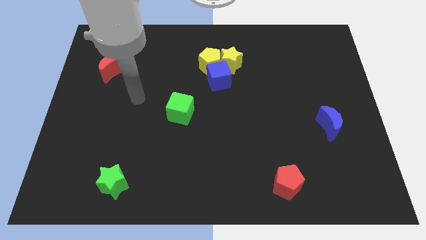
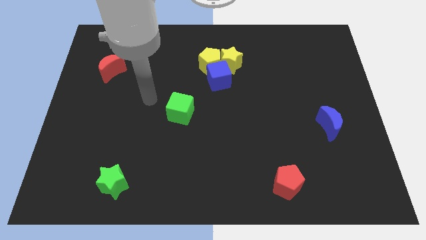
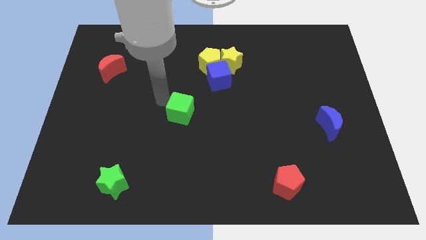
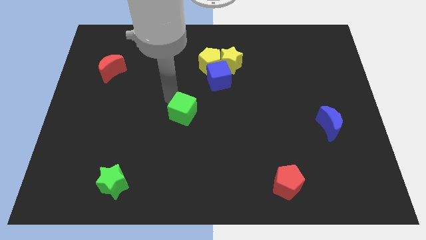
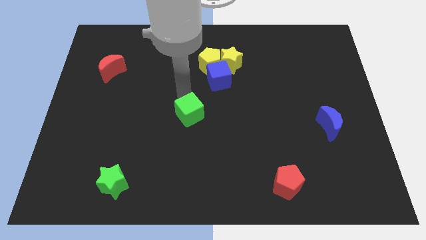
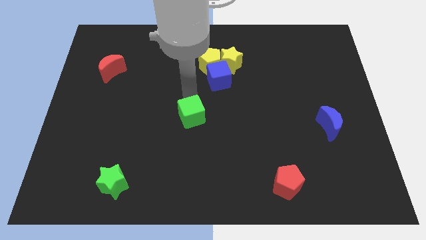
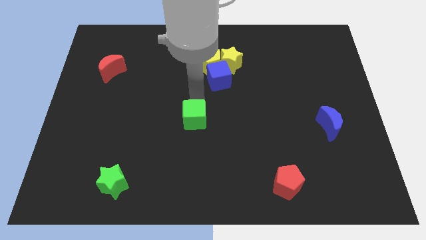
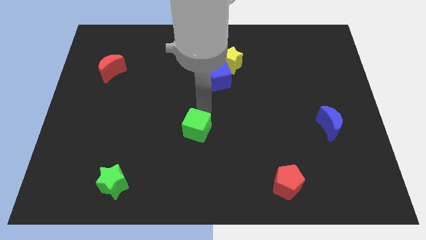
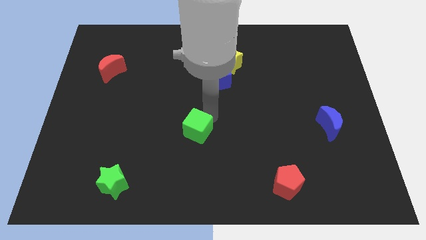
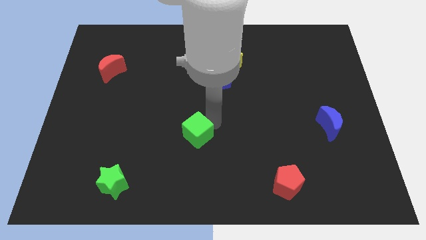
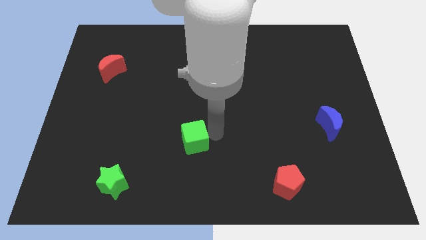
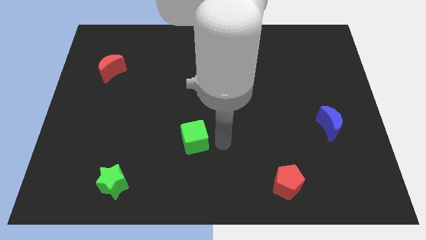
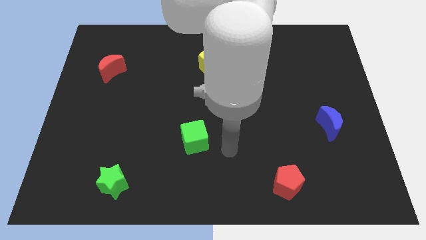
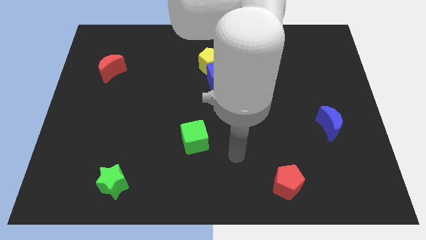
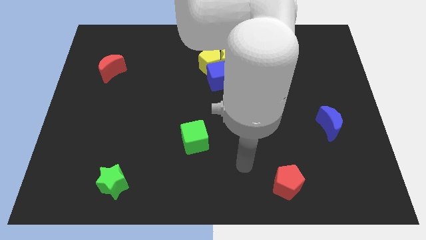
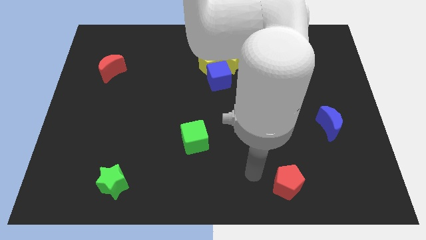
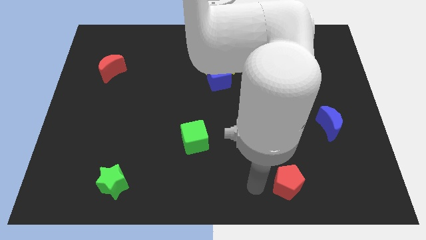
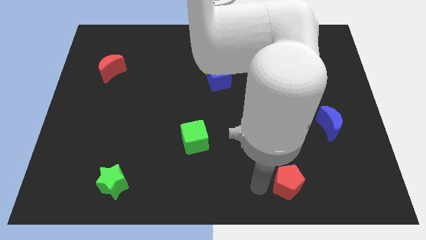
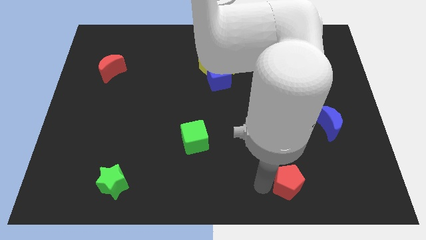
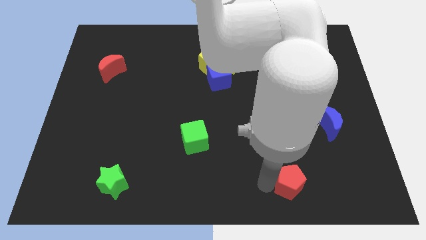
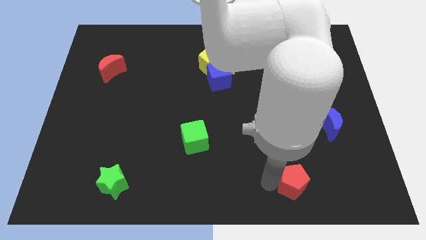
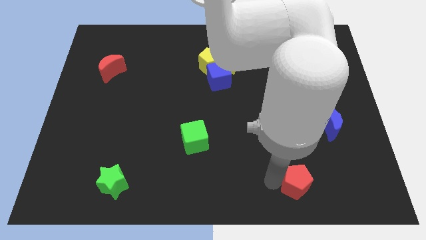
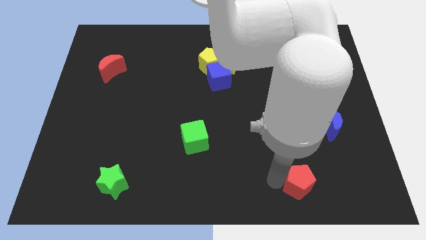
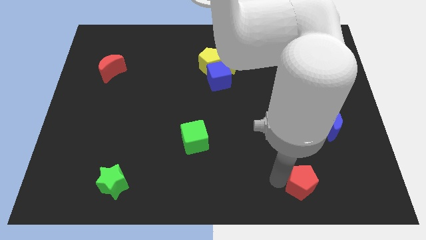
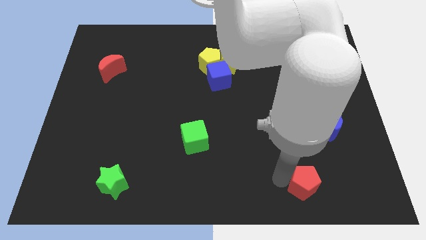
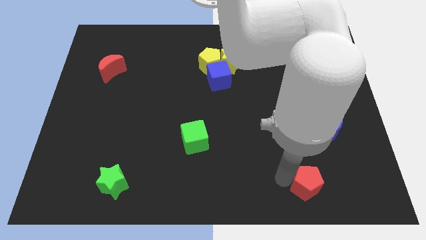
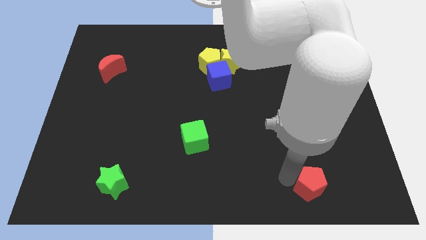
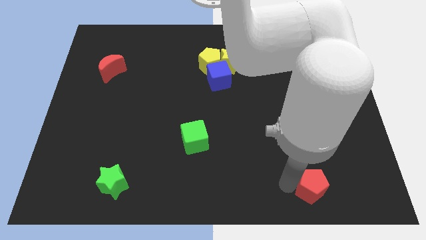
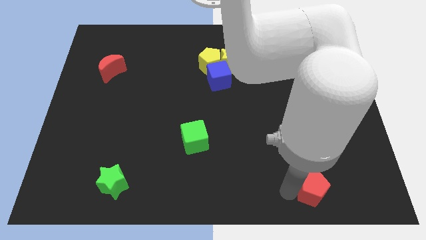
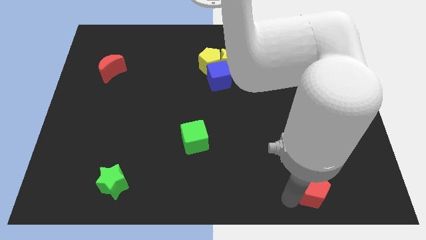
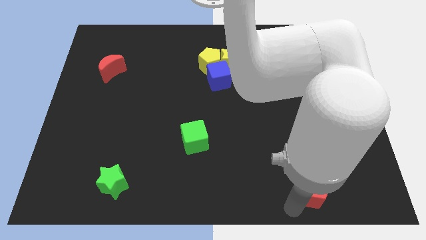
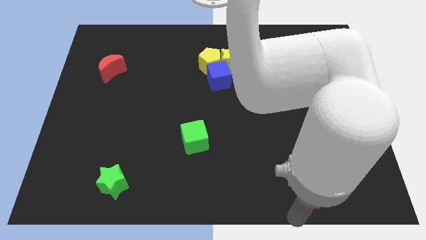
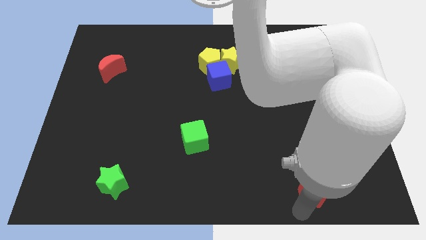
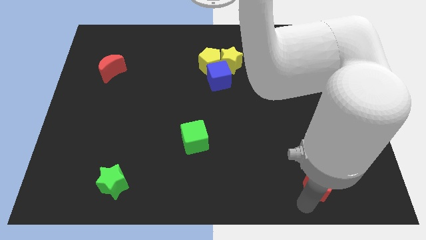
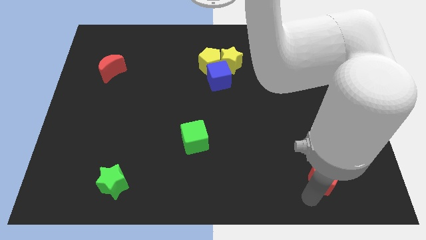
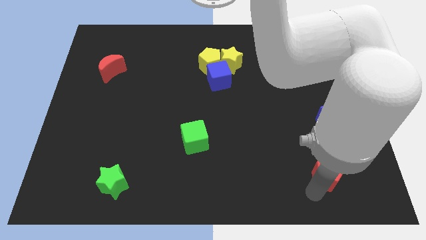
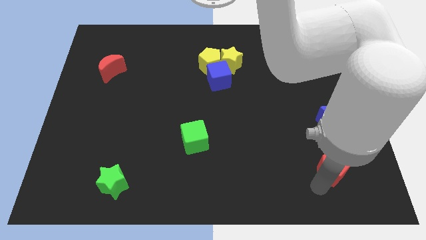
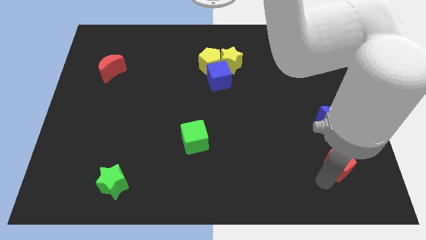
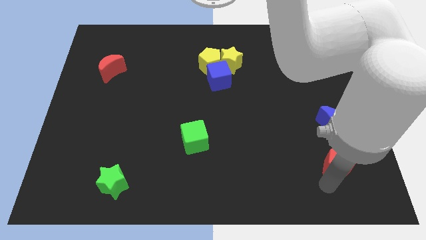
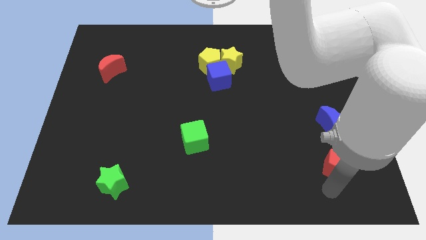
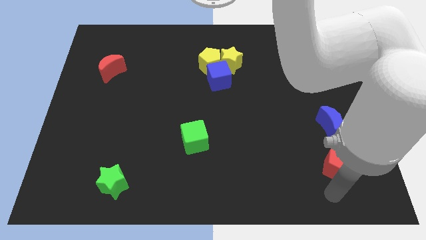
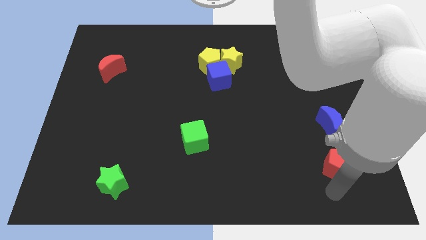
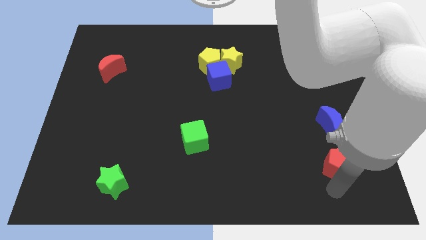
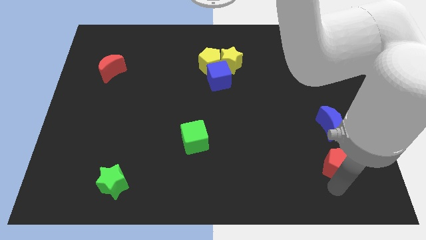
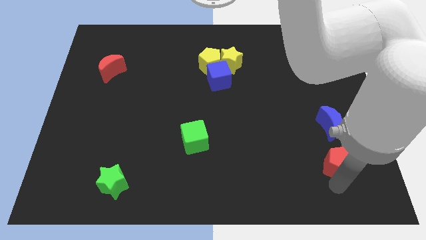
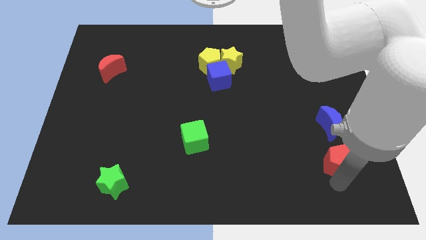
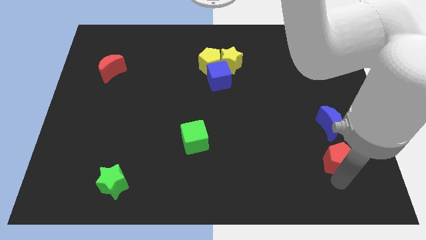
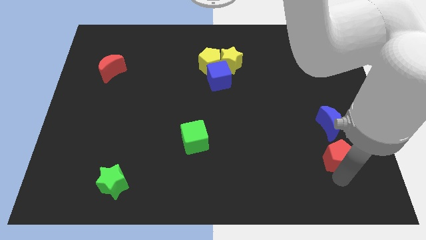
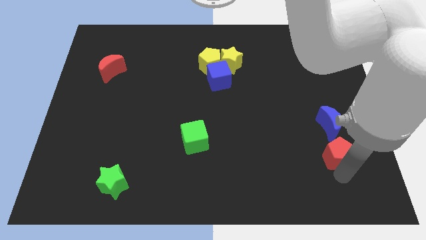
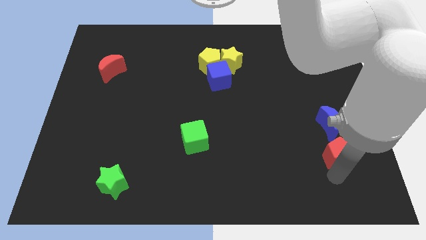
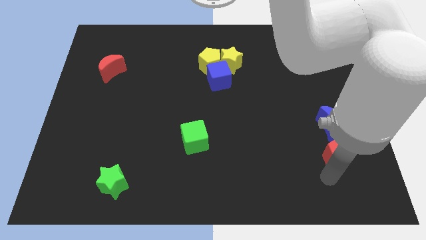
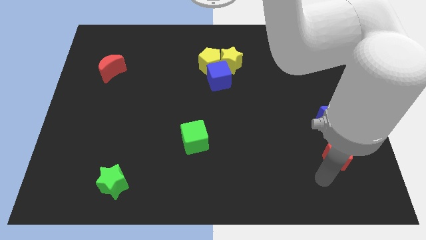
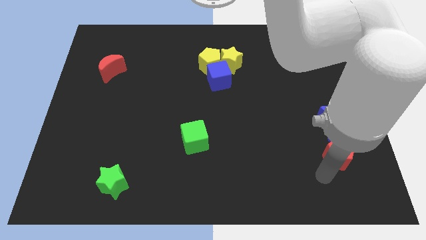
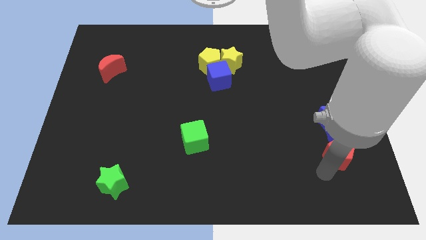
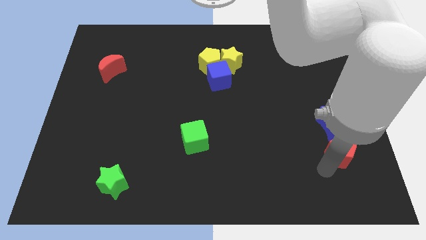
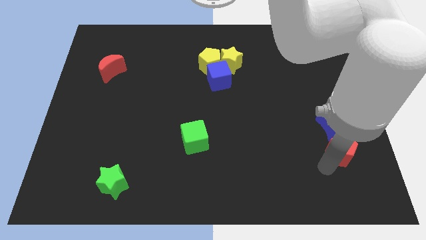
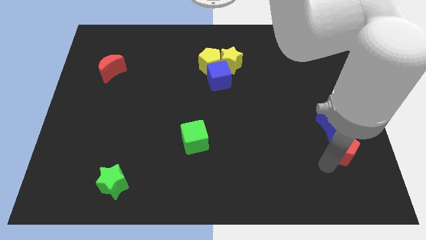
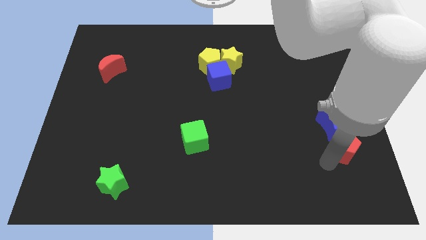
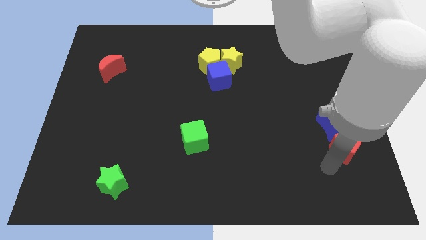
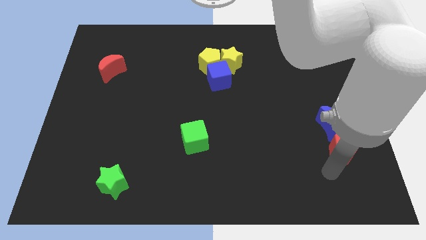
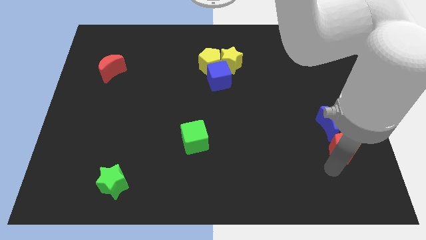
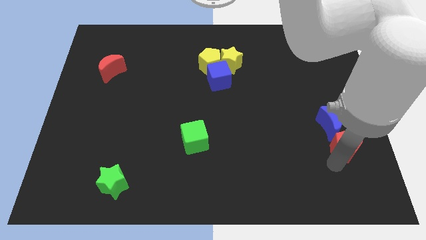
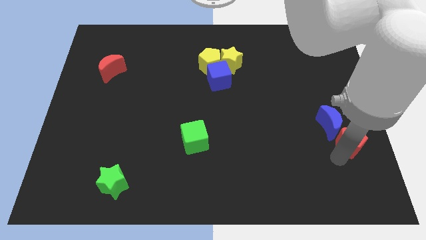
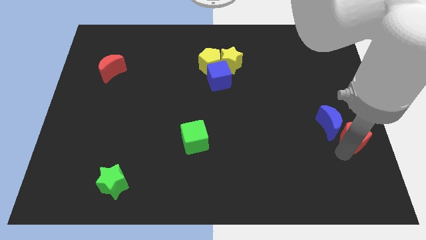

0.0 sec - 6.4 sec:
put the red pentagon to the right side
